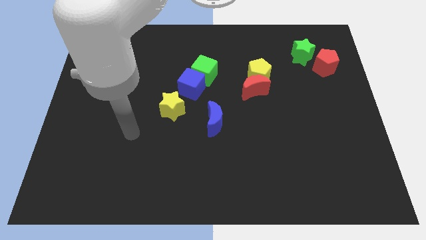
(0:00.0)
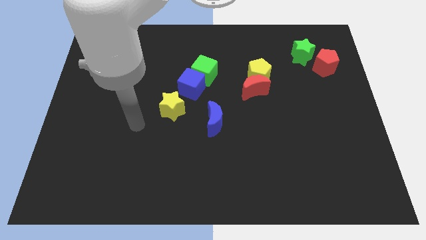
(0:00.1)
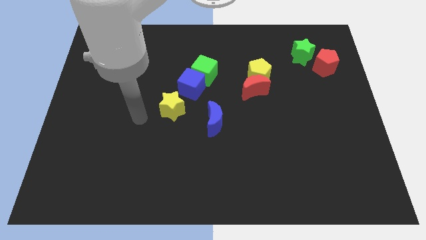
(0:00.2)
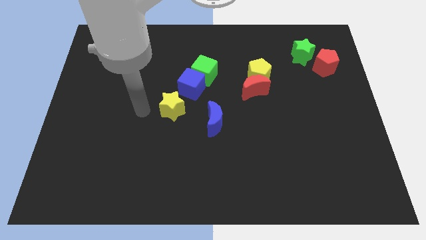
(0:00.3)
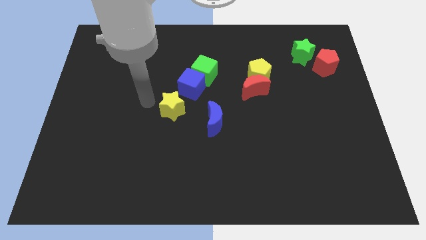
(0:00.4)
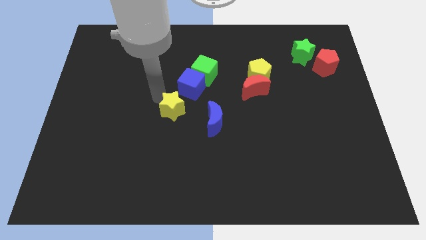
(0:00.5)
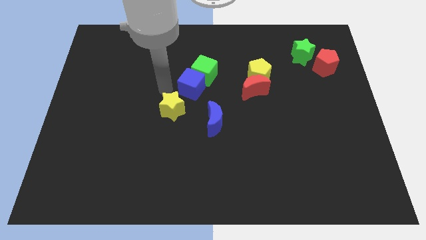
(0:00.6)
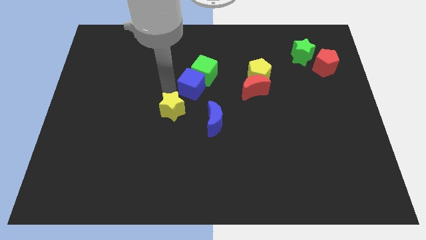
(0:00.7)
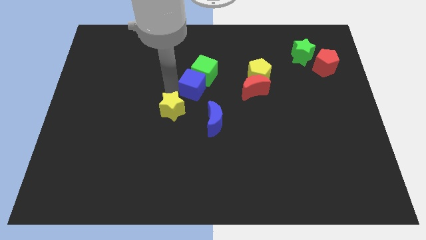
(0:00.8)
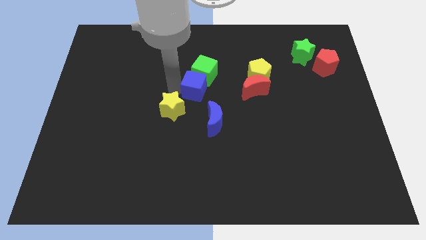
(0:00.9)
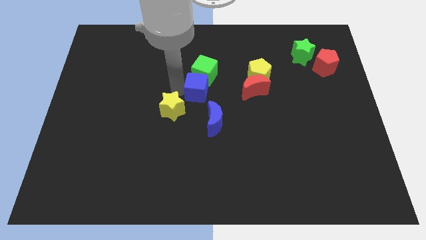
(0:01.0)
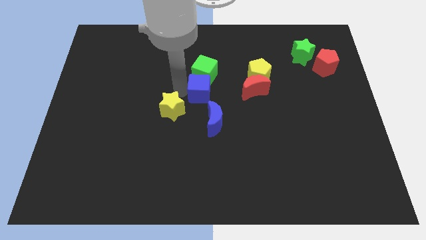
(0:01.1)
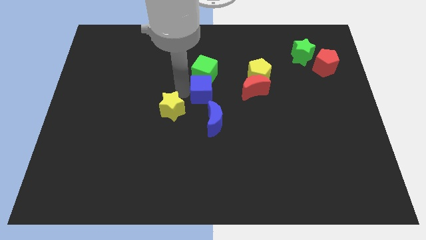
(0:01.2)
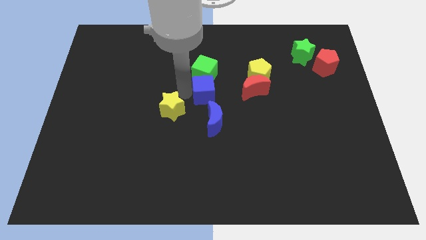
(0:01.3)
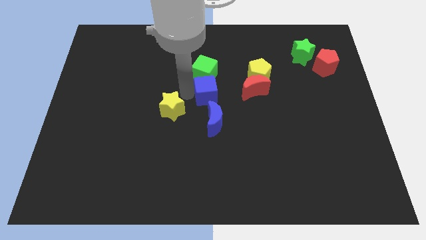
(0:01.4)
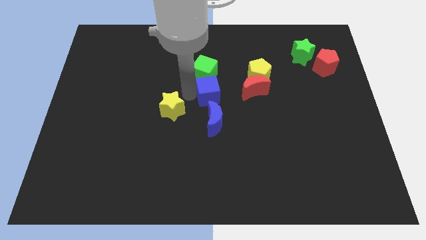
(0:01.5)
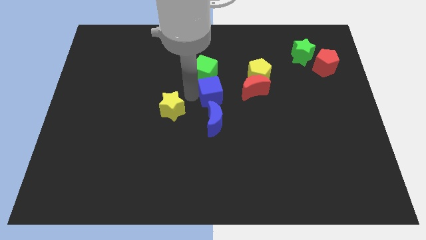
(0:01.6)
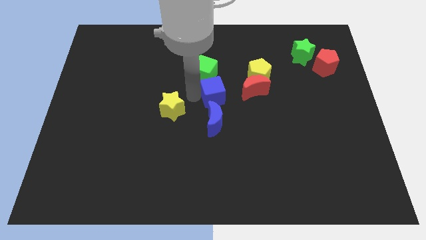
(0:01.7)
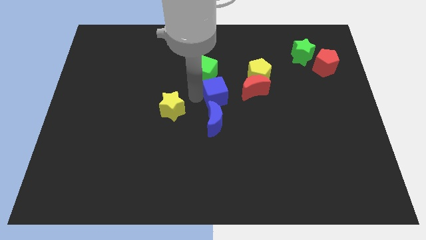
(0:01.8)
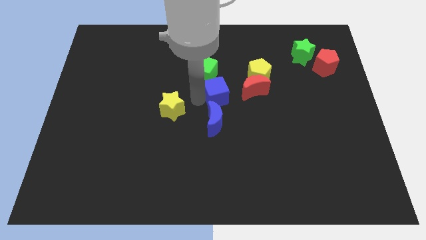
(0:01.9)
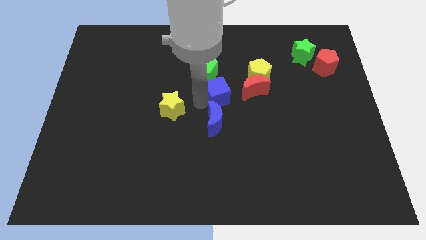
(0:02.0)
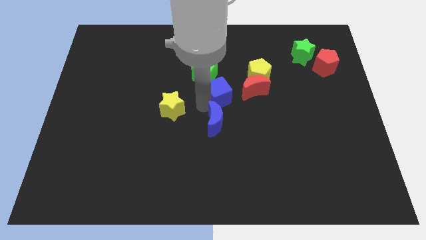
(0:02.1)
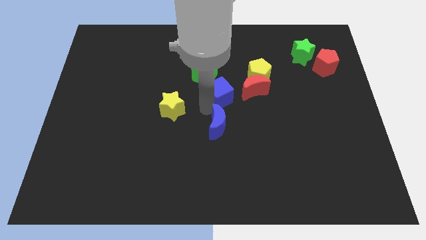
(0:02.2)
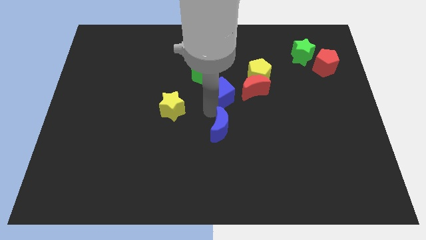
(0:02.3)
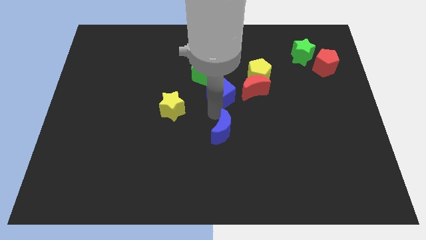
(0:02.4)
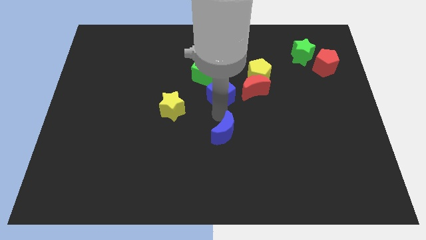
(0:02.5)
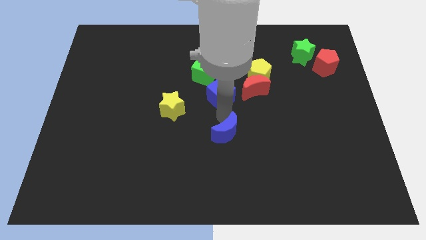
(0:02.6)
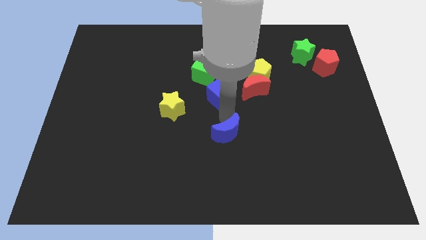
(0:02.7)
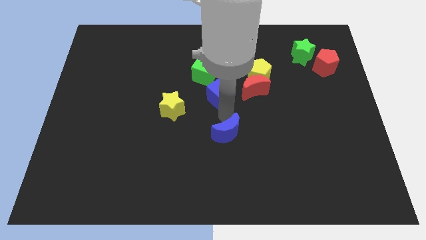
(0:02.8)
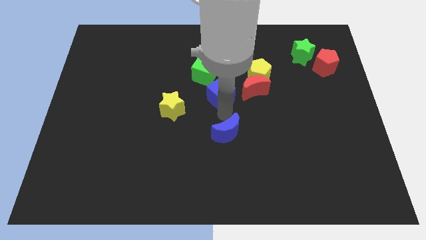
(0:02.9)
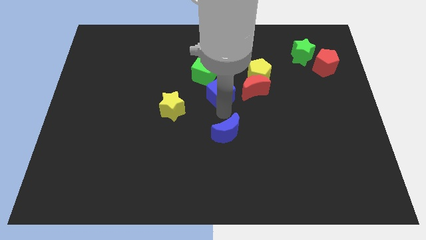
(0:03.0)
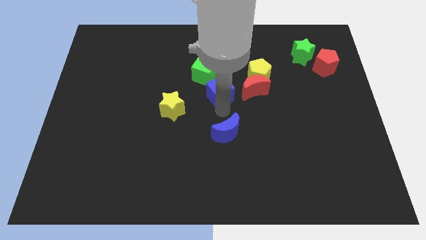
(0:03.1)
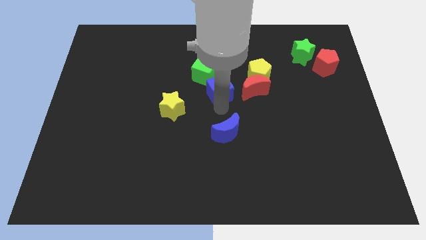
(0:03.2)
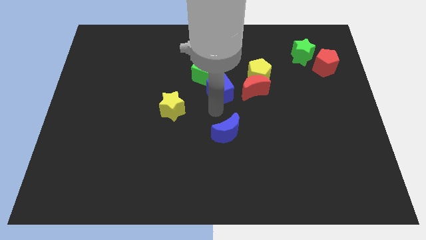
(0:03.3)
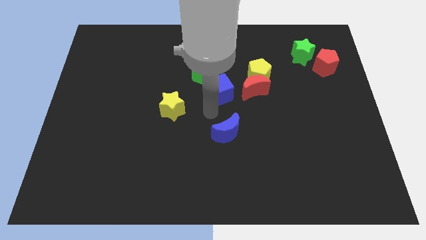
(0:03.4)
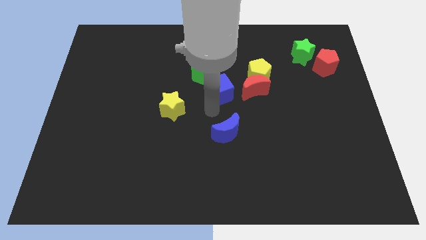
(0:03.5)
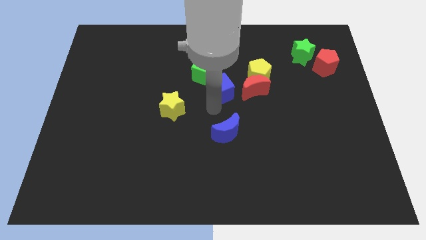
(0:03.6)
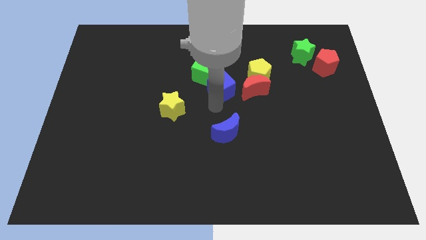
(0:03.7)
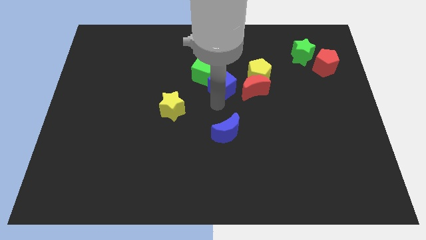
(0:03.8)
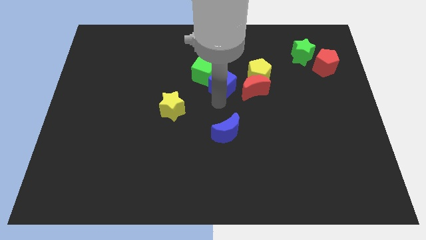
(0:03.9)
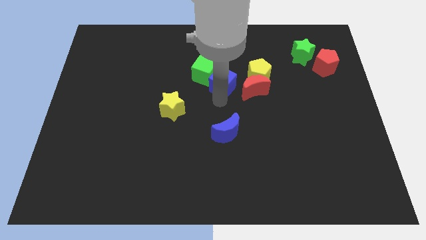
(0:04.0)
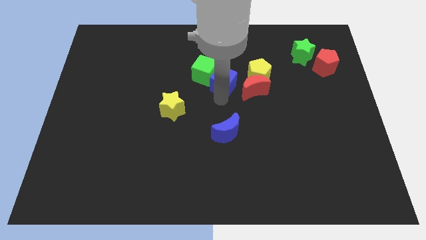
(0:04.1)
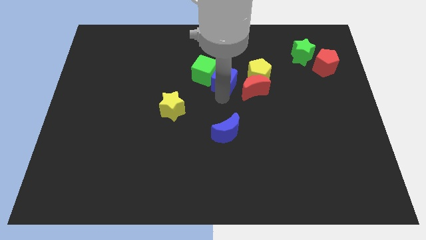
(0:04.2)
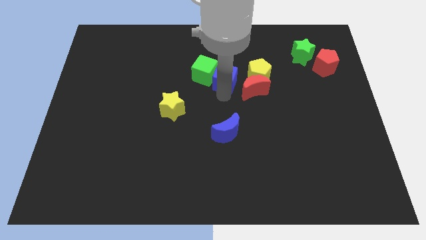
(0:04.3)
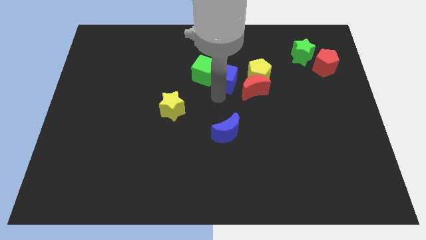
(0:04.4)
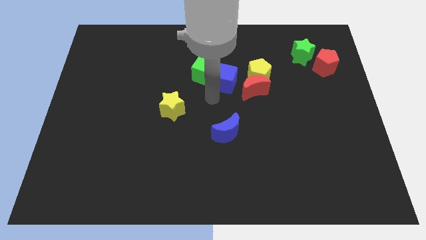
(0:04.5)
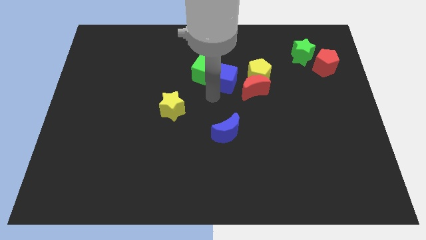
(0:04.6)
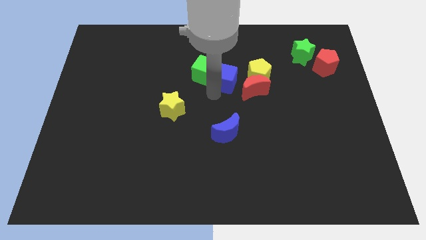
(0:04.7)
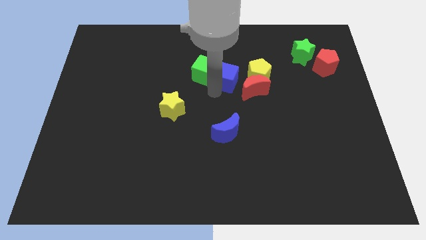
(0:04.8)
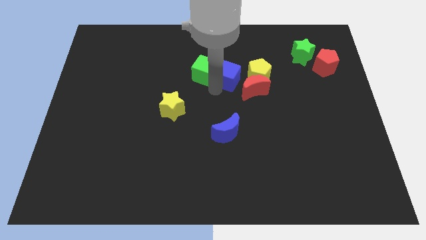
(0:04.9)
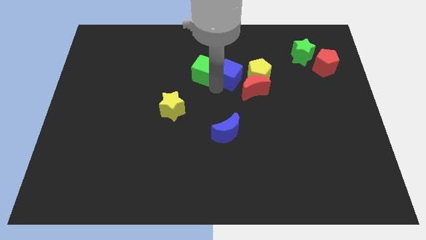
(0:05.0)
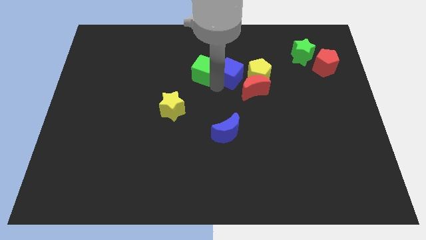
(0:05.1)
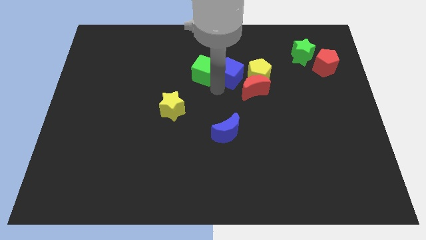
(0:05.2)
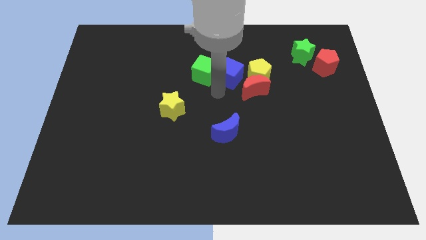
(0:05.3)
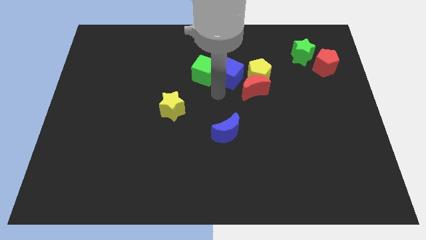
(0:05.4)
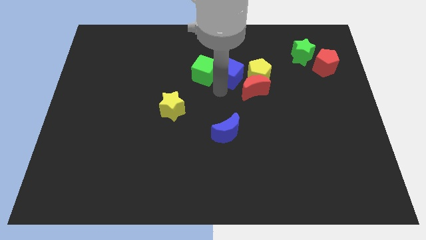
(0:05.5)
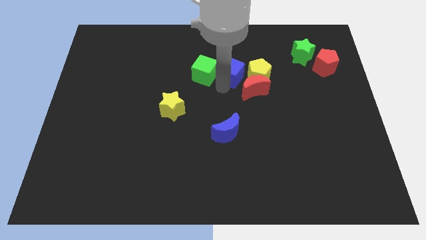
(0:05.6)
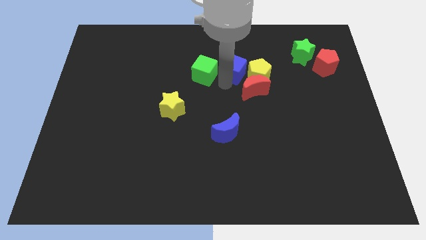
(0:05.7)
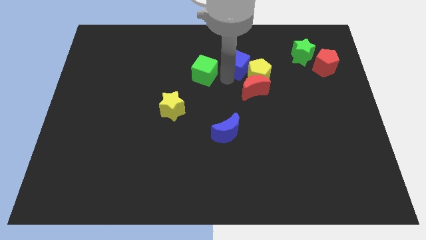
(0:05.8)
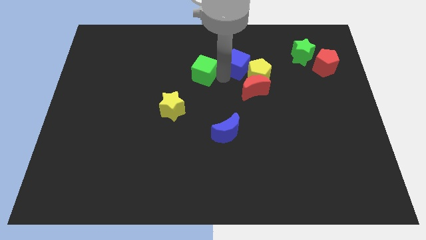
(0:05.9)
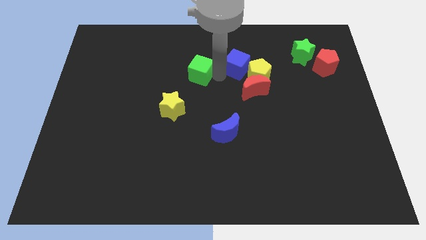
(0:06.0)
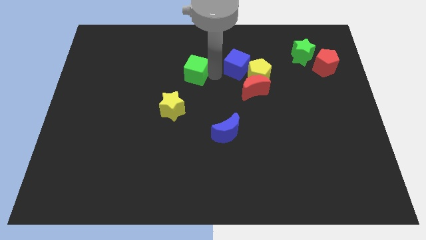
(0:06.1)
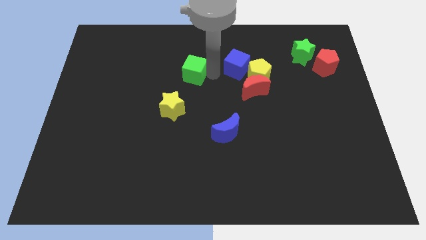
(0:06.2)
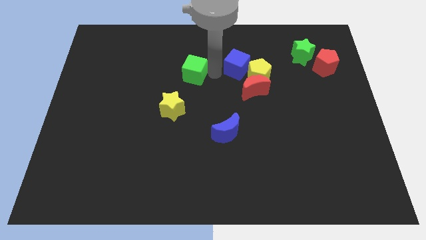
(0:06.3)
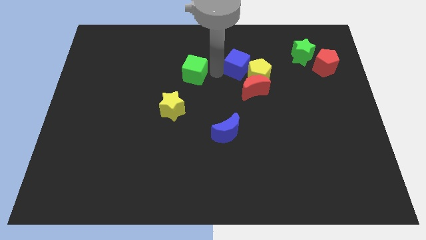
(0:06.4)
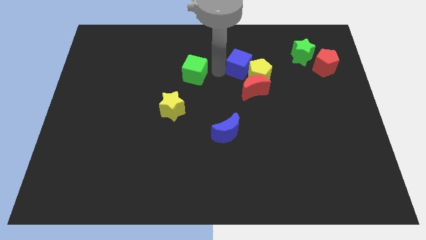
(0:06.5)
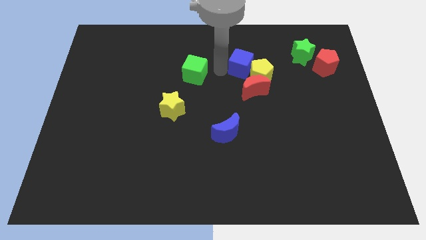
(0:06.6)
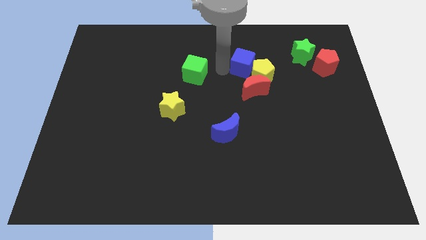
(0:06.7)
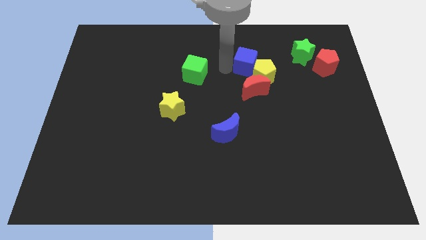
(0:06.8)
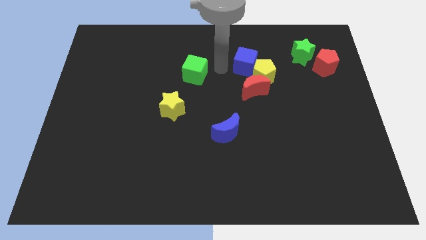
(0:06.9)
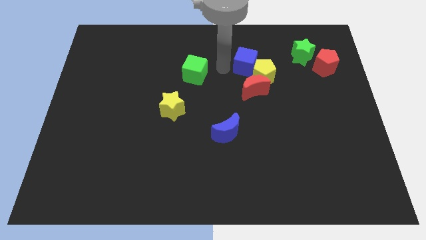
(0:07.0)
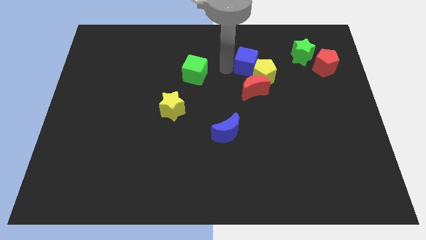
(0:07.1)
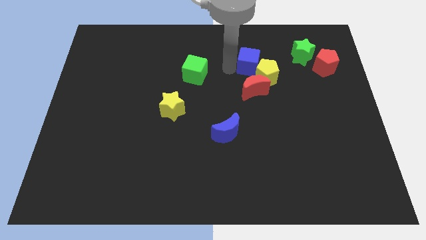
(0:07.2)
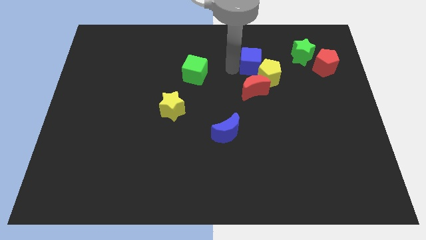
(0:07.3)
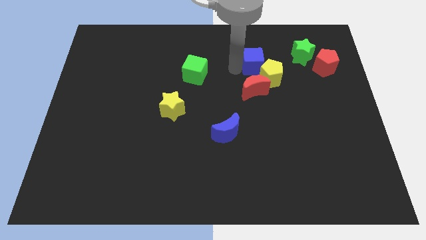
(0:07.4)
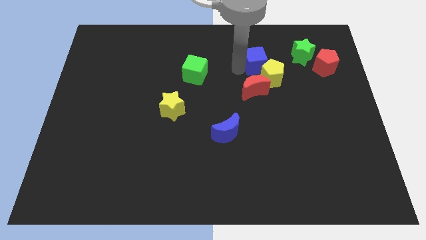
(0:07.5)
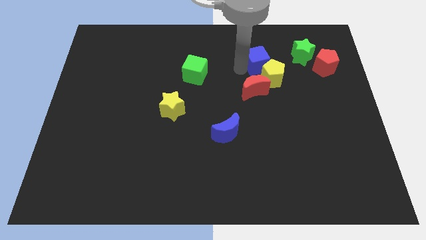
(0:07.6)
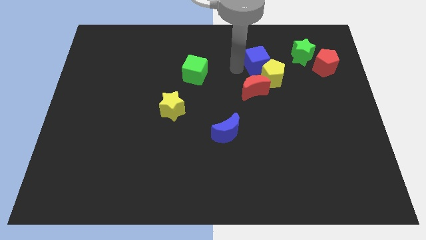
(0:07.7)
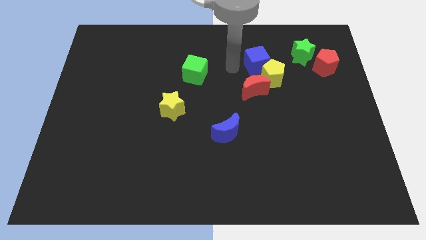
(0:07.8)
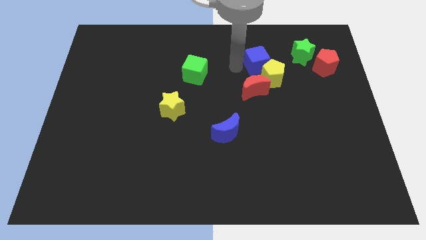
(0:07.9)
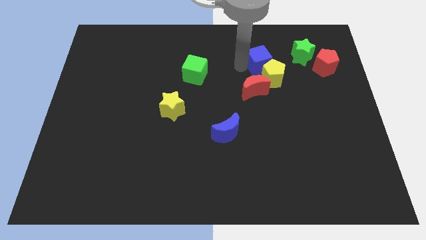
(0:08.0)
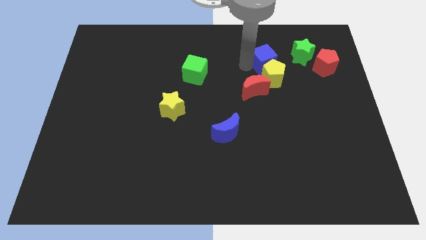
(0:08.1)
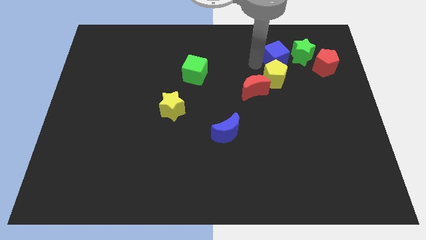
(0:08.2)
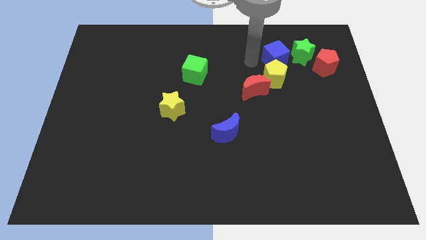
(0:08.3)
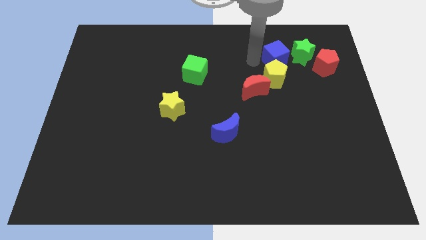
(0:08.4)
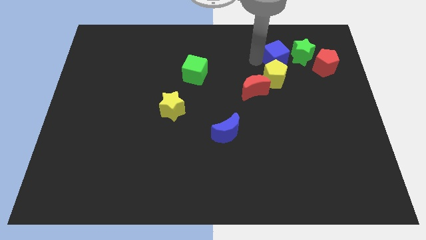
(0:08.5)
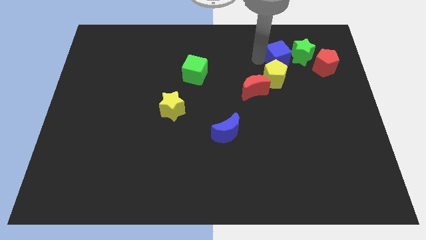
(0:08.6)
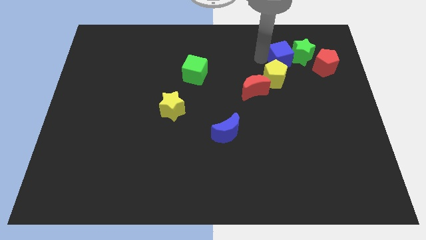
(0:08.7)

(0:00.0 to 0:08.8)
slide the blue cube close to the green star
